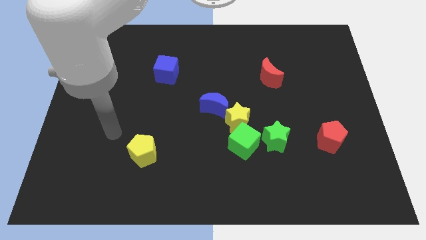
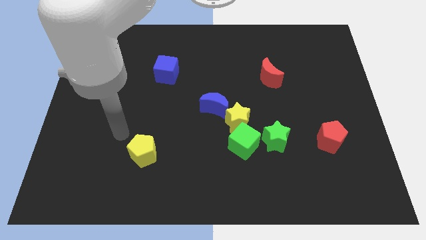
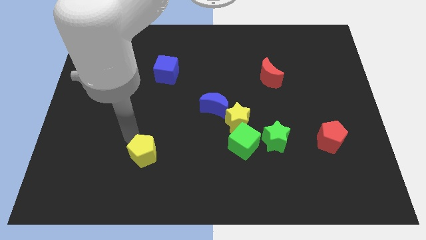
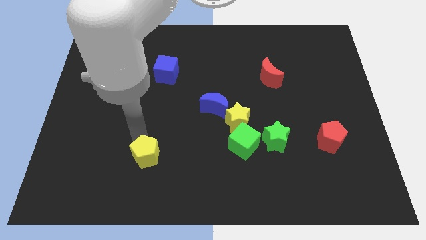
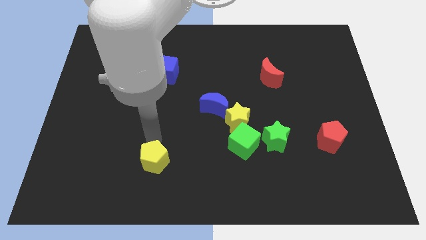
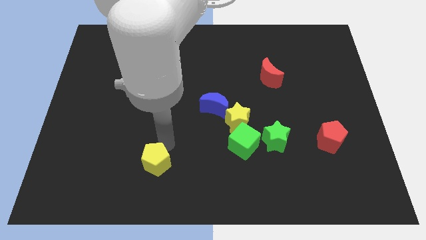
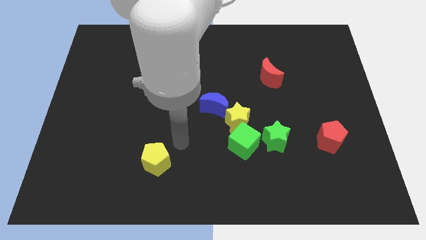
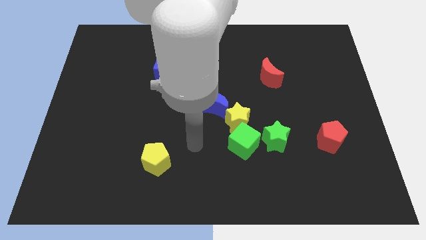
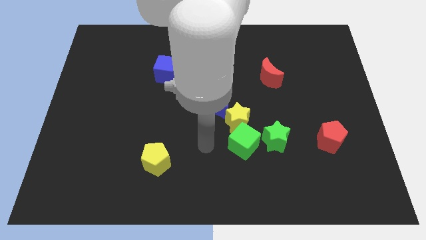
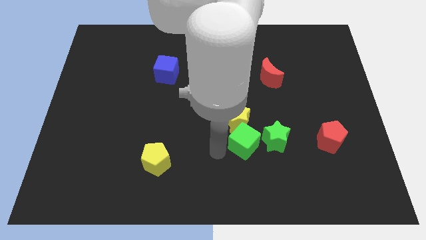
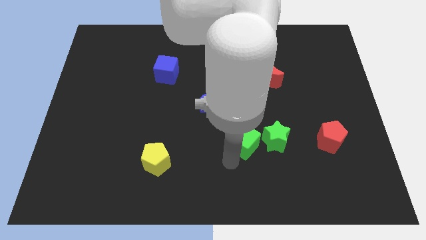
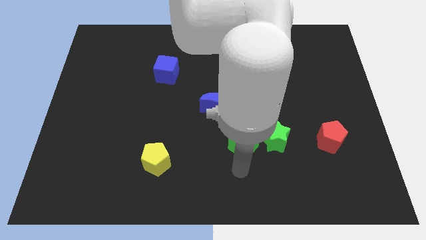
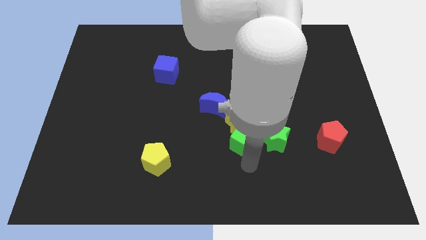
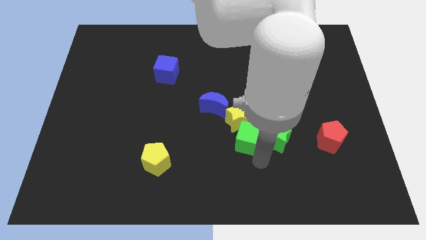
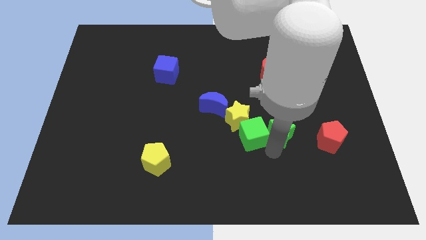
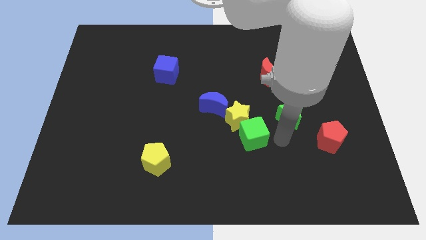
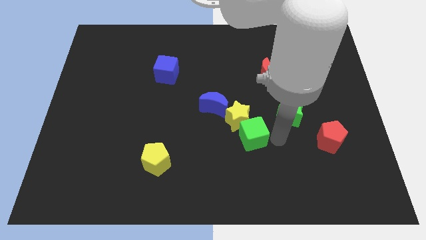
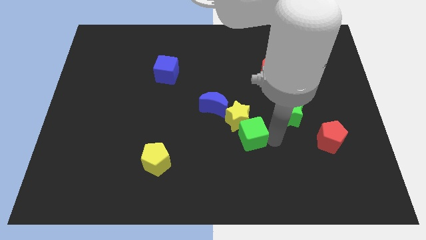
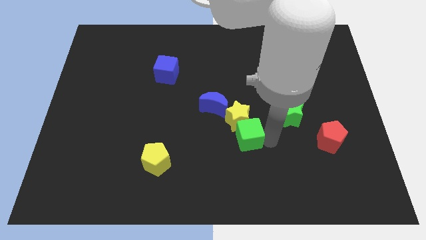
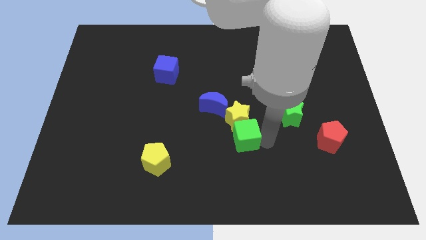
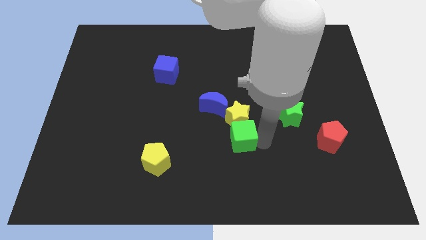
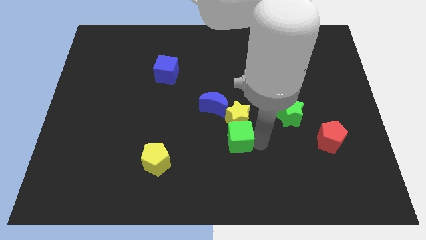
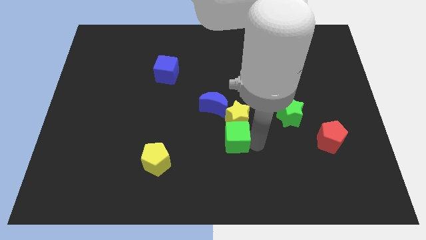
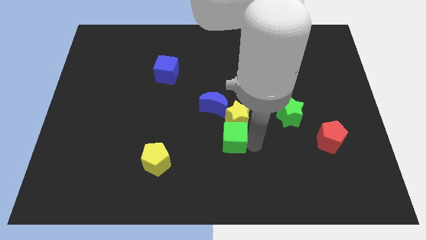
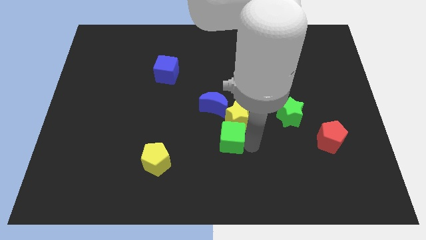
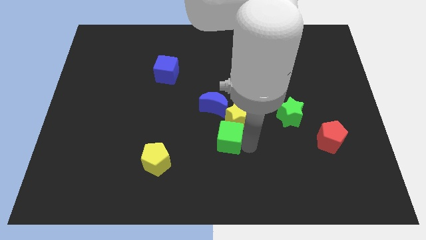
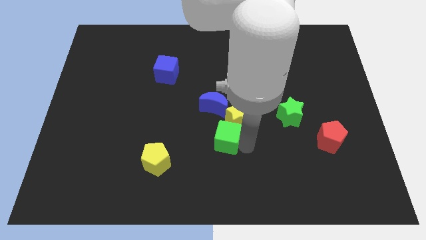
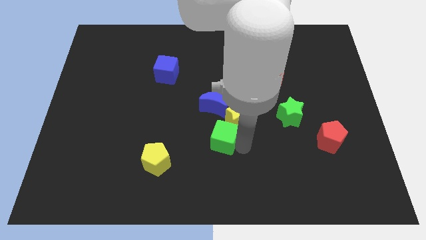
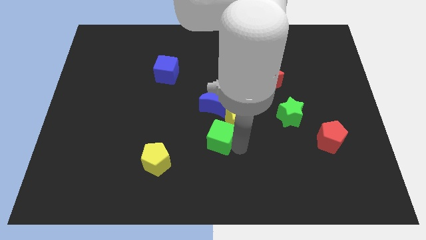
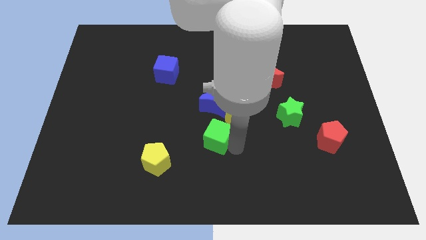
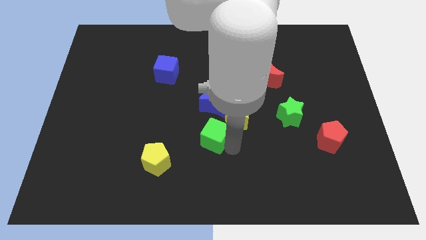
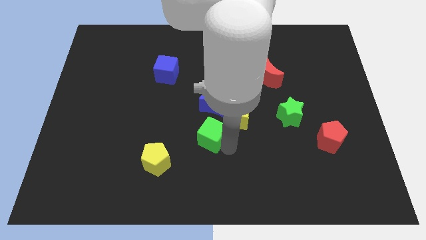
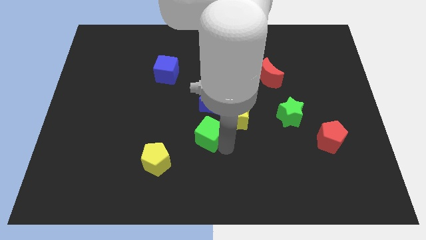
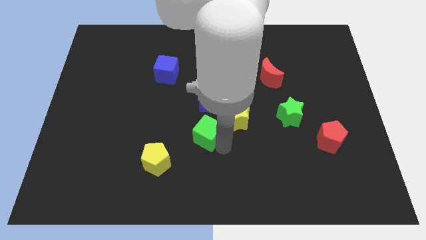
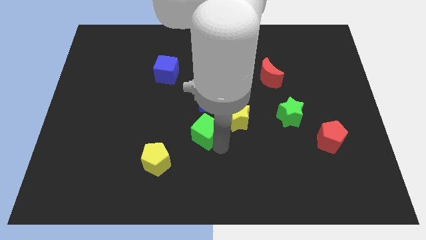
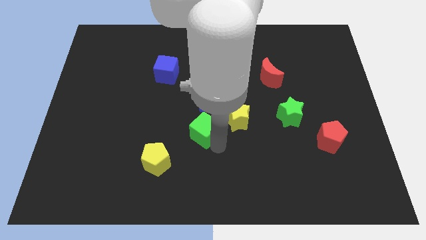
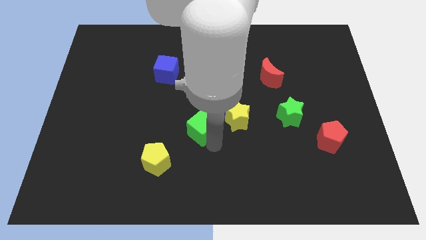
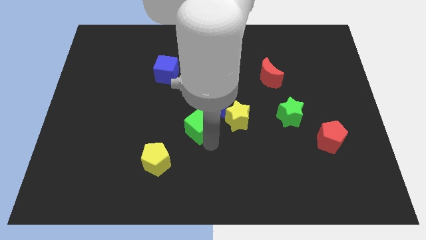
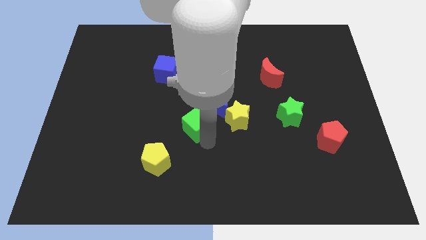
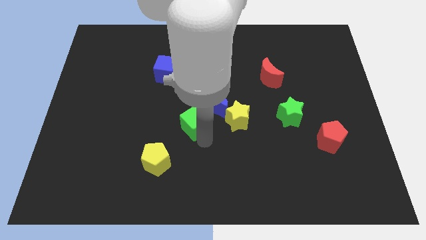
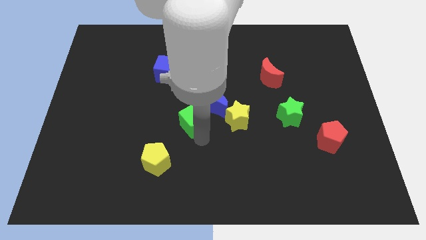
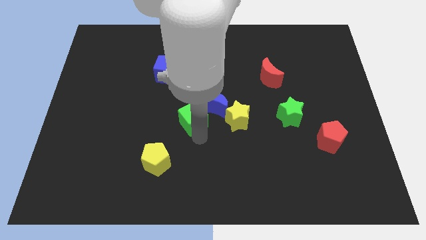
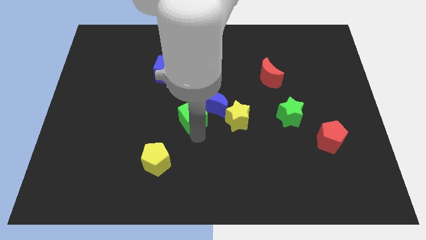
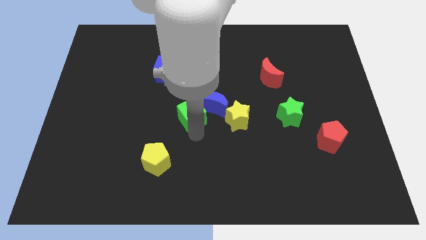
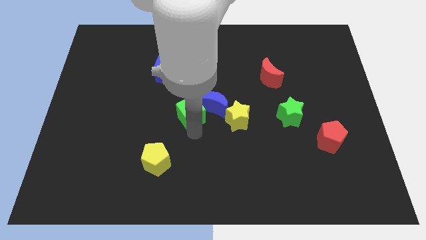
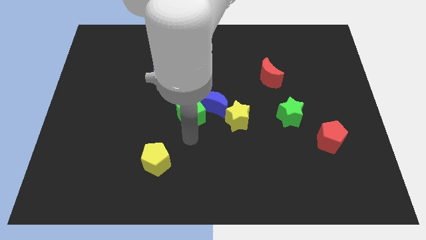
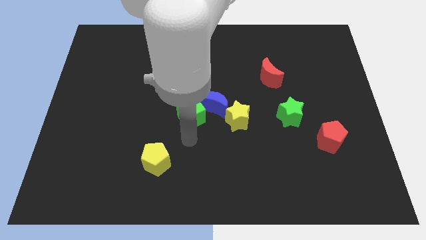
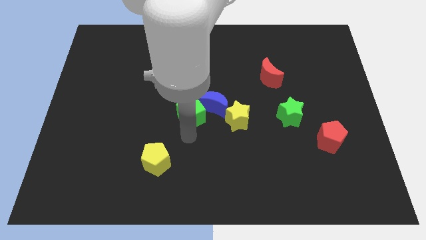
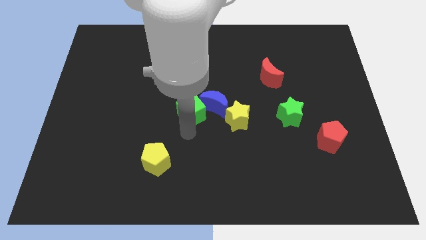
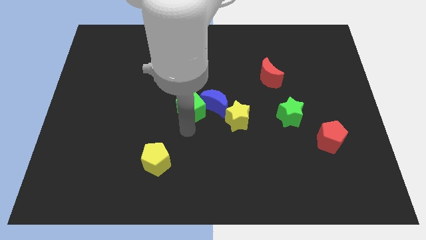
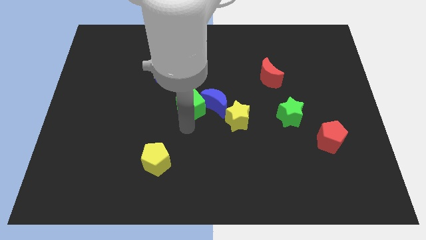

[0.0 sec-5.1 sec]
move the green cube diagonally up and to the left of the blue moon

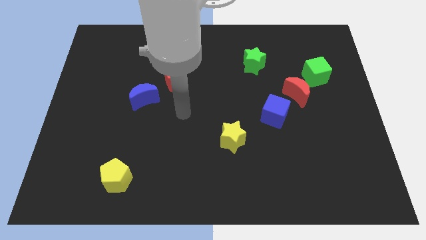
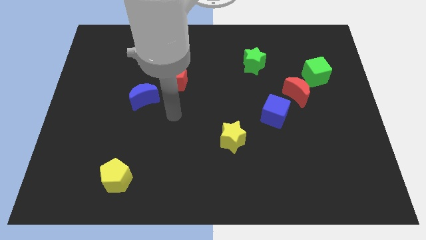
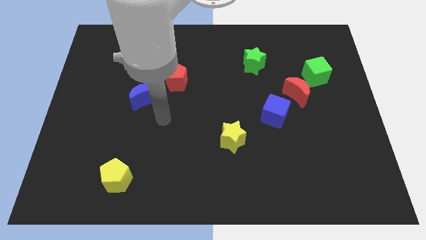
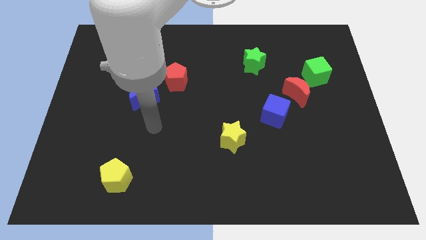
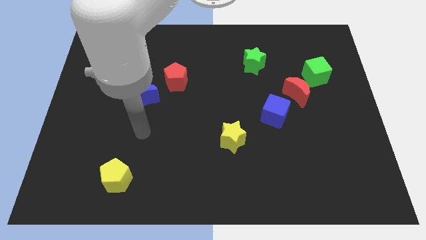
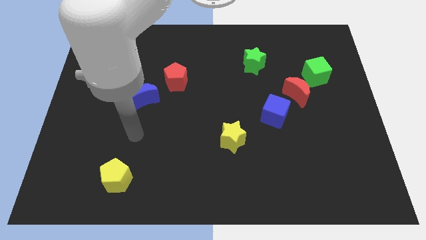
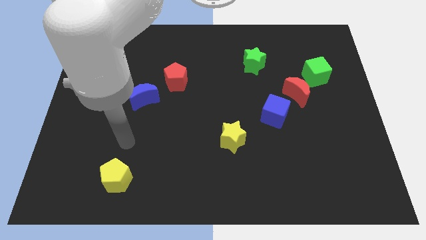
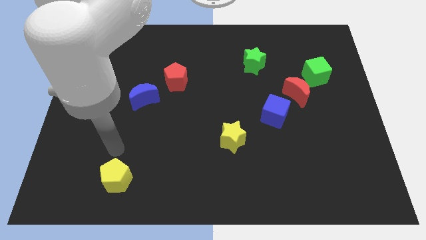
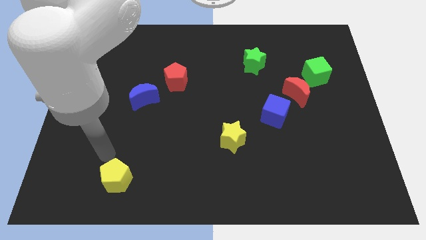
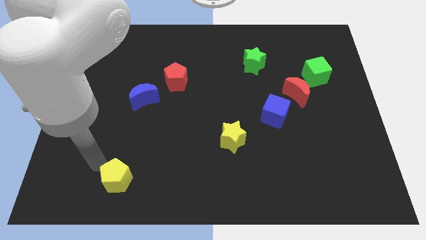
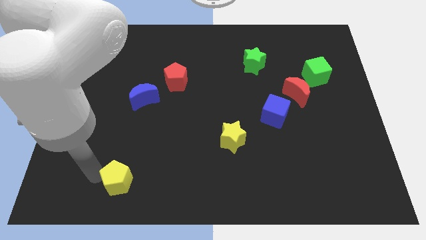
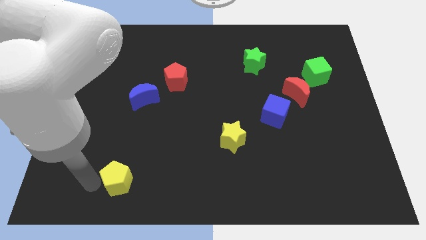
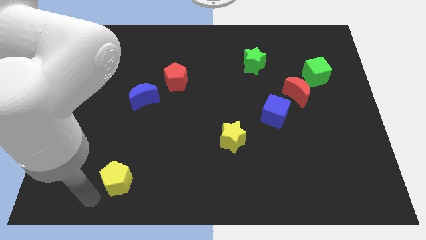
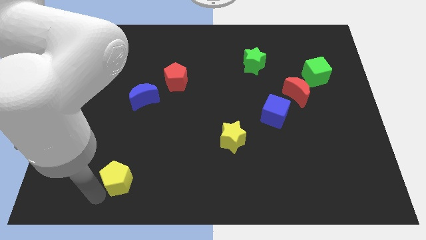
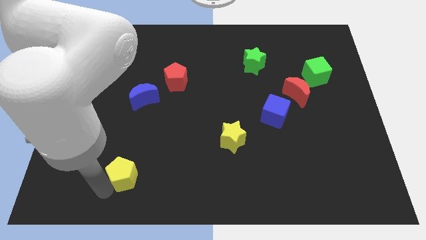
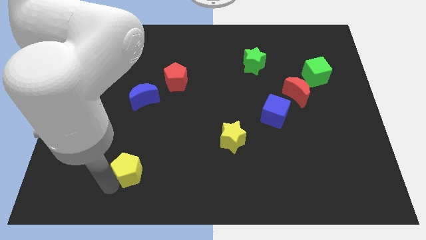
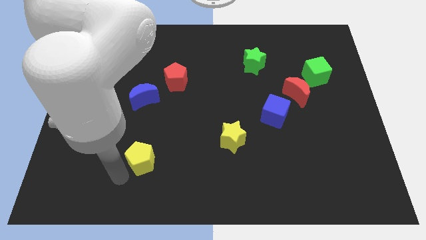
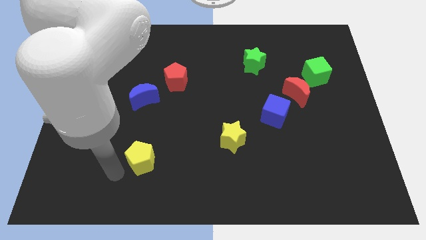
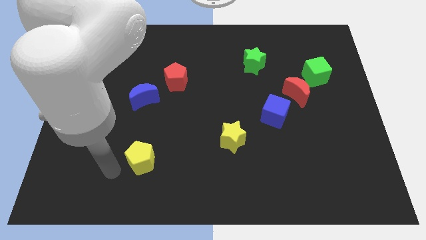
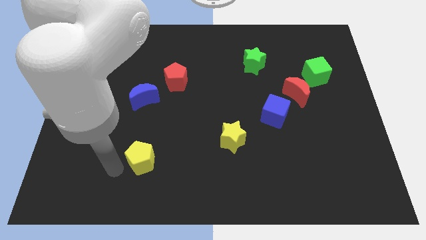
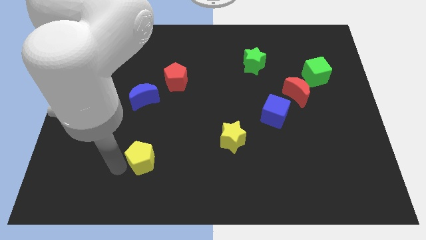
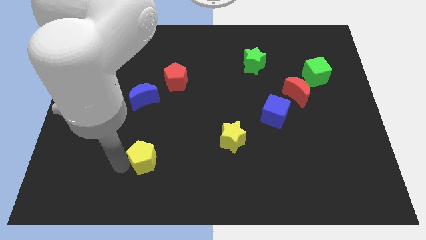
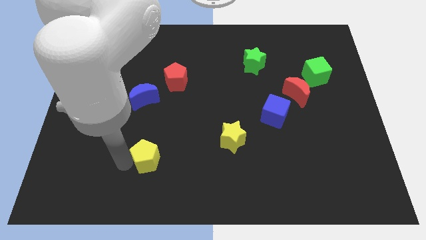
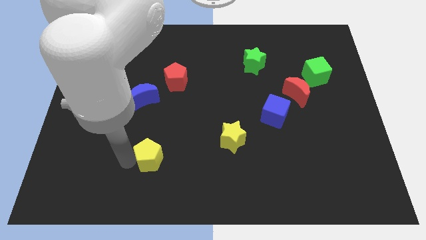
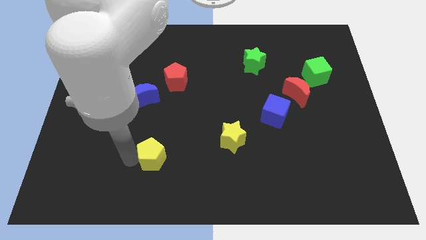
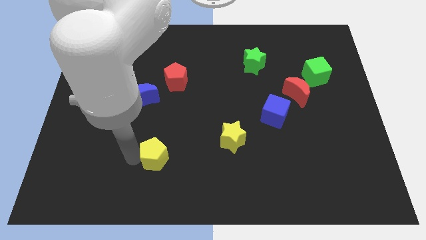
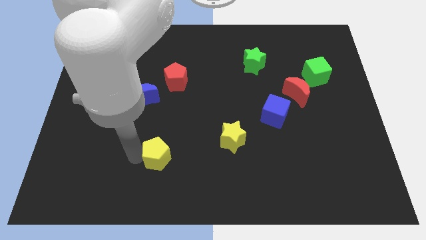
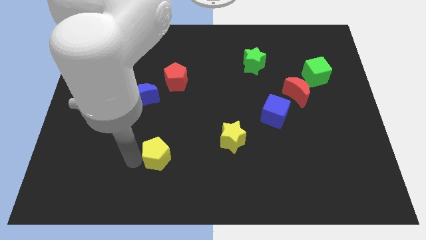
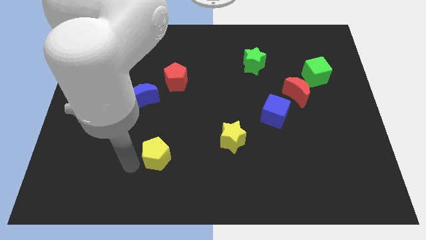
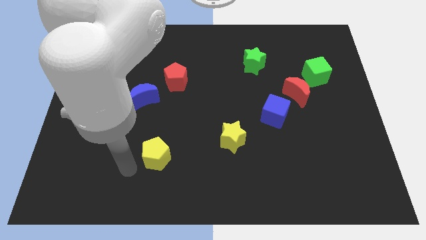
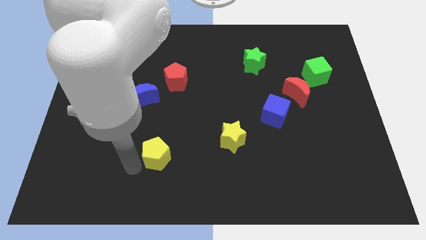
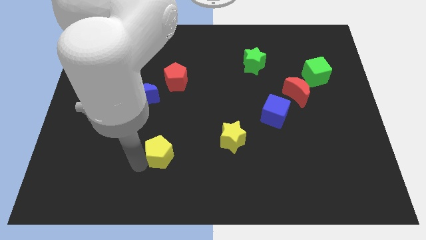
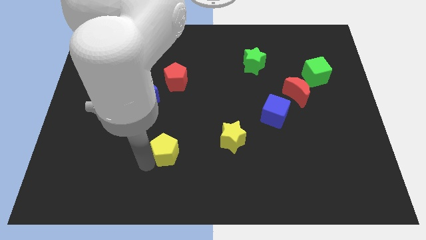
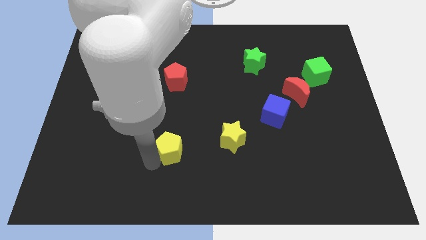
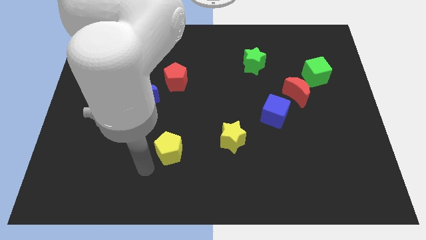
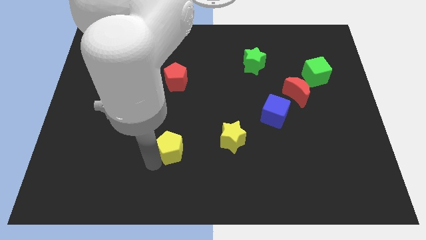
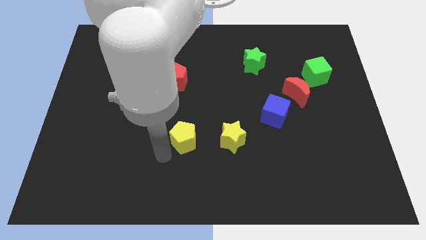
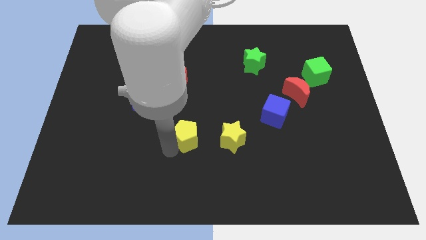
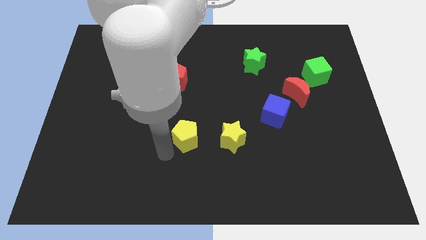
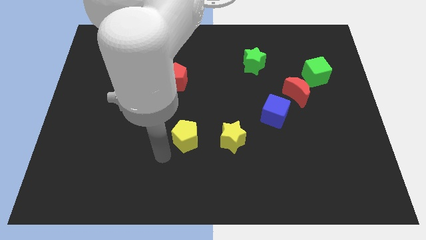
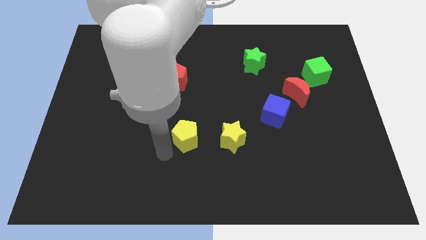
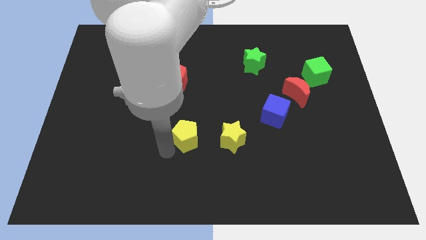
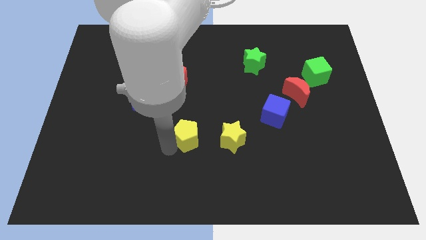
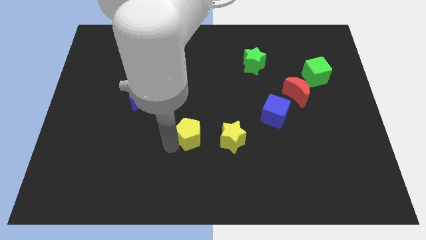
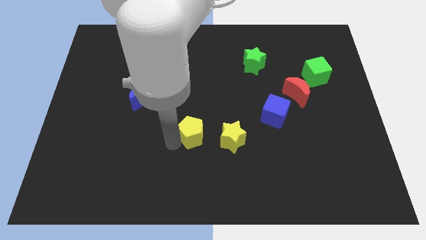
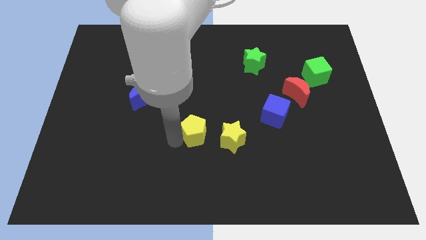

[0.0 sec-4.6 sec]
push the yellow pentagon diagonally up and to the left of the yellow star
